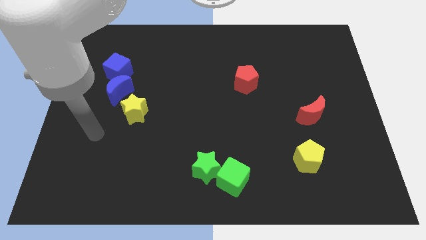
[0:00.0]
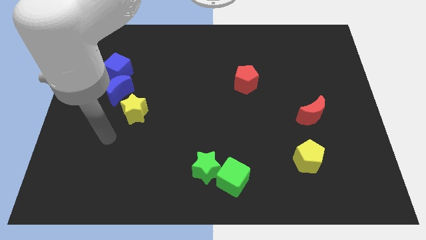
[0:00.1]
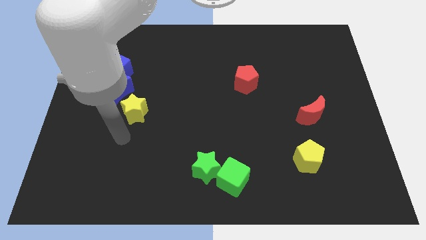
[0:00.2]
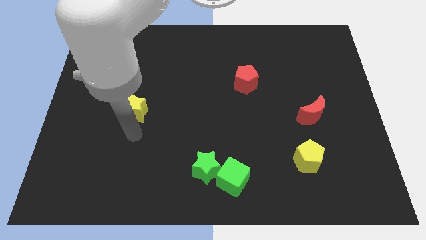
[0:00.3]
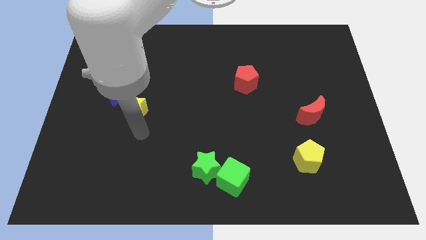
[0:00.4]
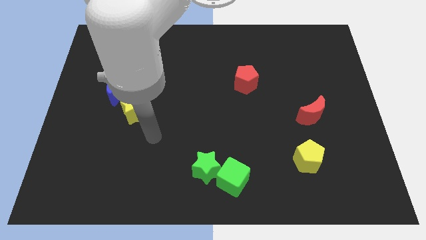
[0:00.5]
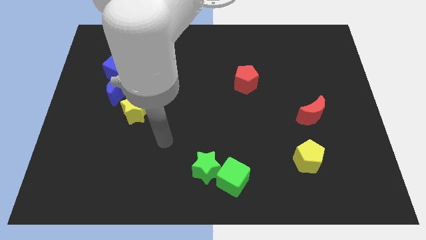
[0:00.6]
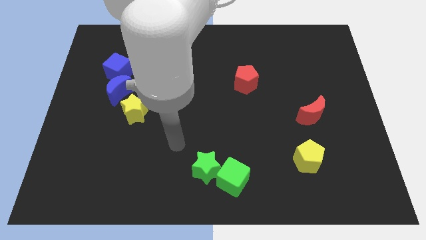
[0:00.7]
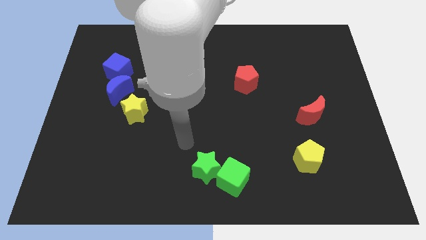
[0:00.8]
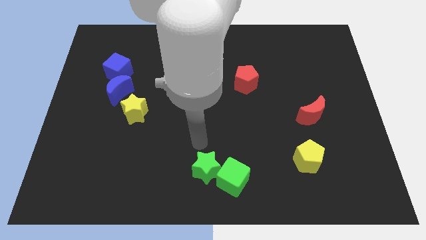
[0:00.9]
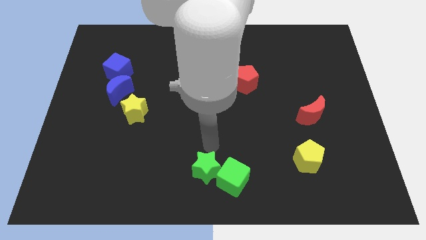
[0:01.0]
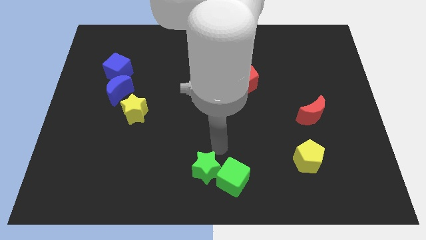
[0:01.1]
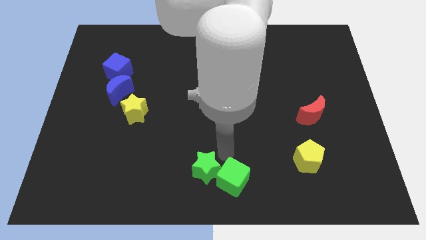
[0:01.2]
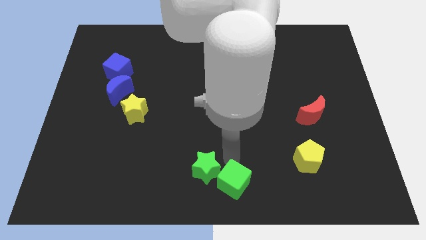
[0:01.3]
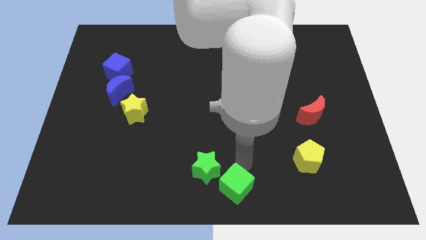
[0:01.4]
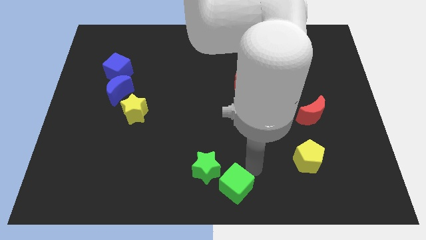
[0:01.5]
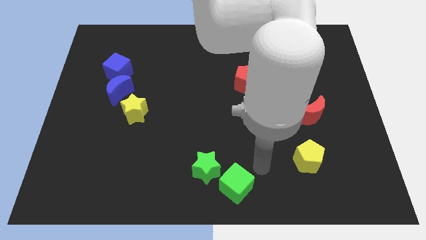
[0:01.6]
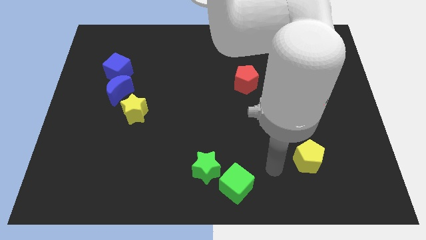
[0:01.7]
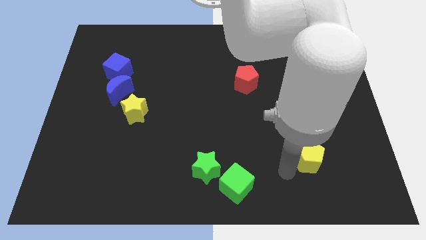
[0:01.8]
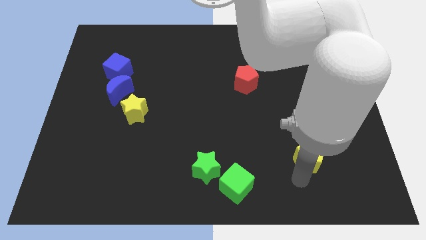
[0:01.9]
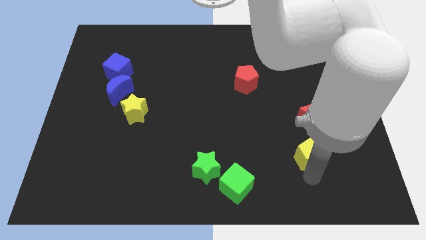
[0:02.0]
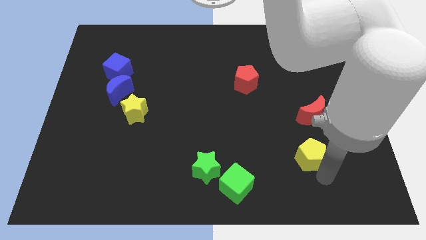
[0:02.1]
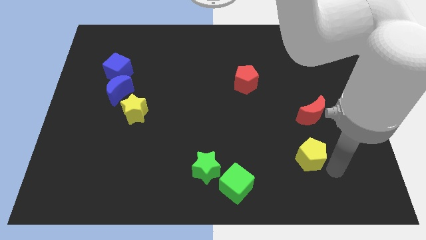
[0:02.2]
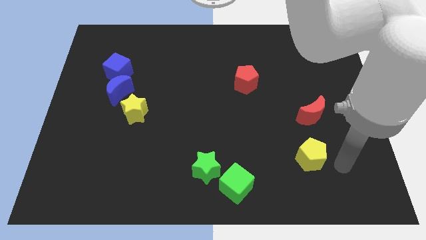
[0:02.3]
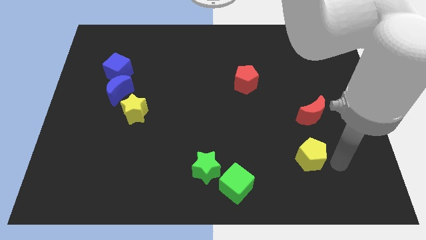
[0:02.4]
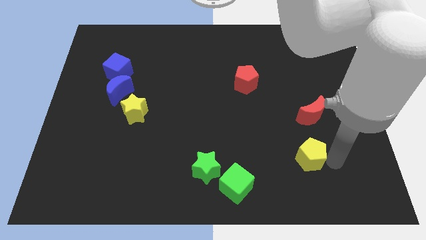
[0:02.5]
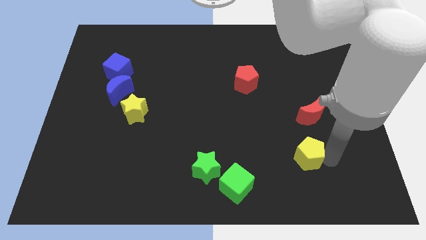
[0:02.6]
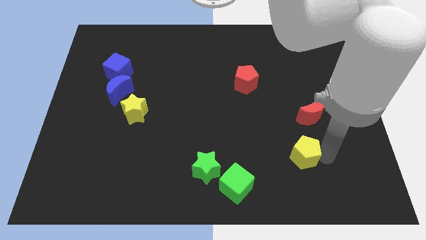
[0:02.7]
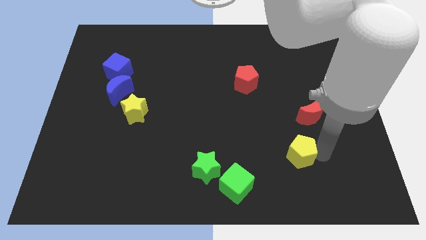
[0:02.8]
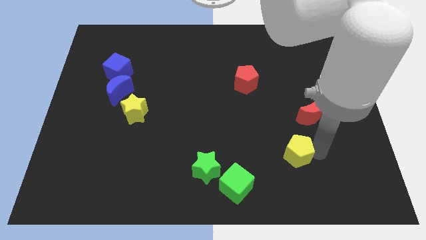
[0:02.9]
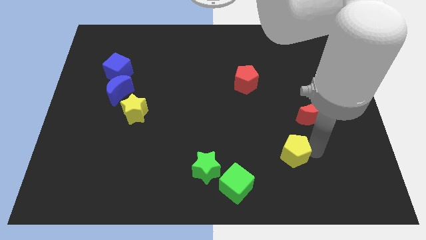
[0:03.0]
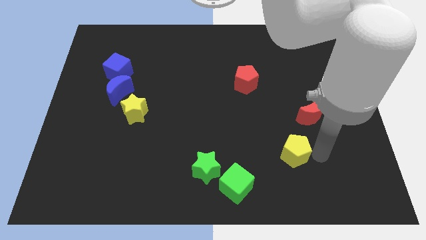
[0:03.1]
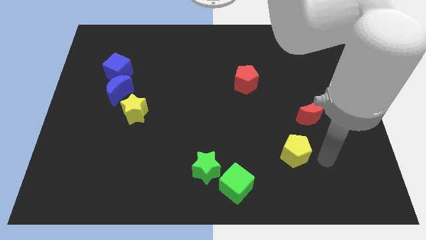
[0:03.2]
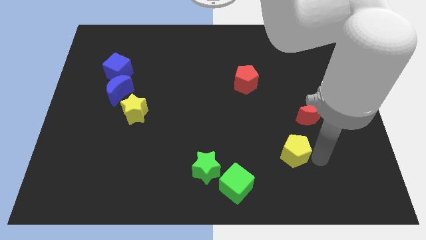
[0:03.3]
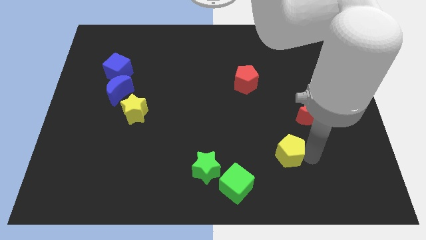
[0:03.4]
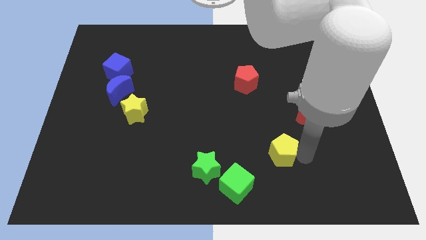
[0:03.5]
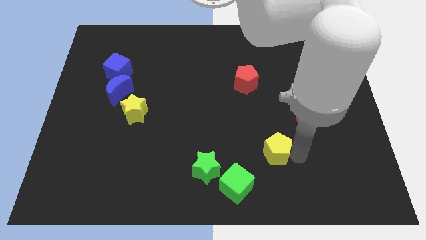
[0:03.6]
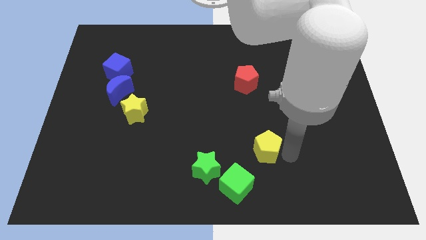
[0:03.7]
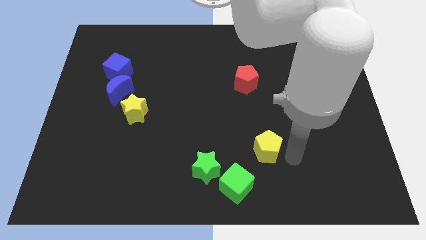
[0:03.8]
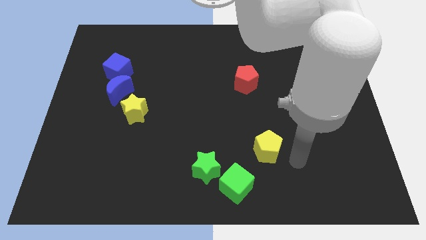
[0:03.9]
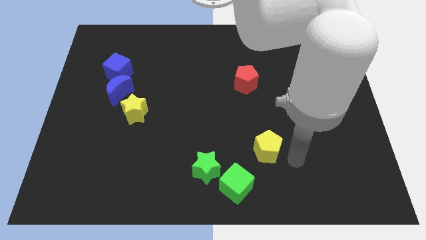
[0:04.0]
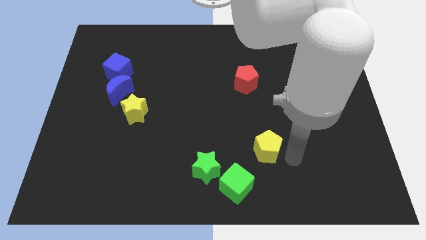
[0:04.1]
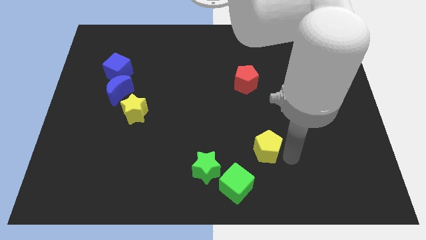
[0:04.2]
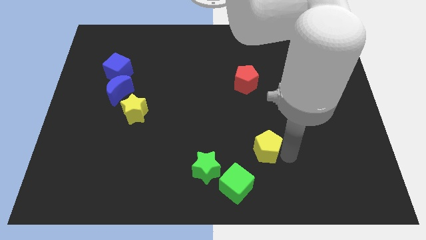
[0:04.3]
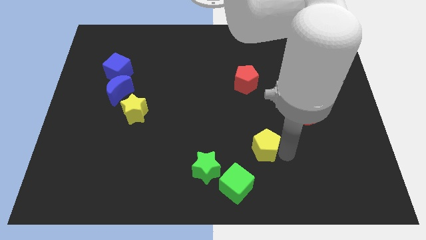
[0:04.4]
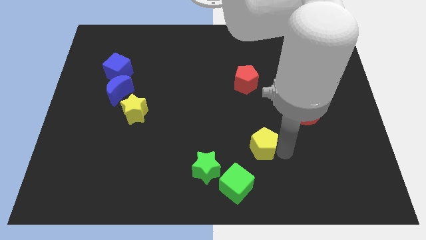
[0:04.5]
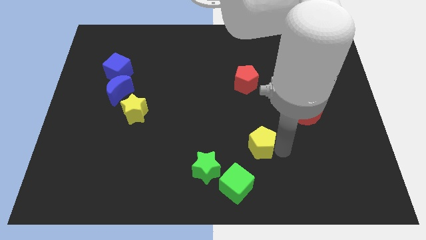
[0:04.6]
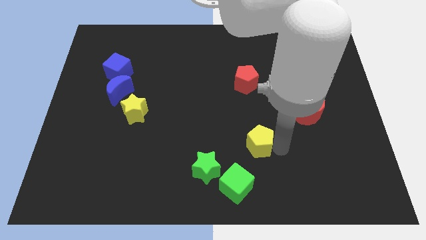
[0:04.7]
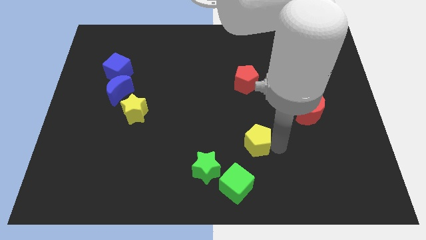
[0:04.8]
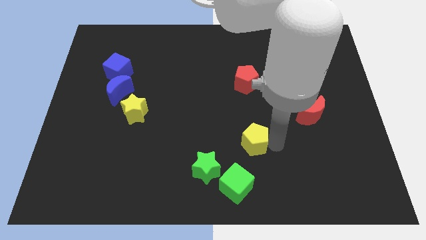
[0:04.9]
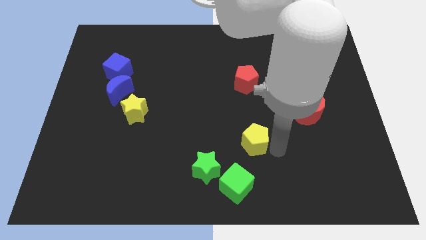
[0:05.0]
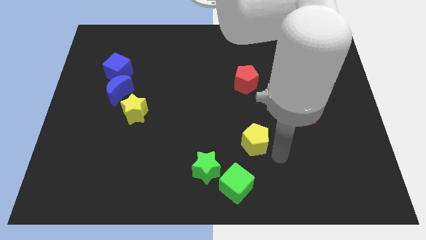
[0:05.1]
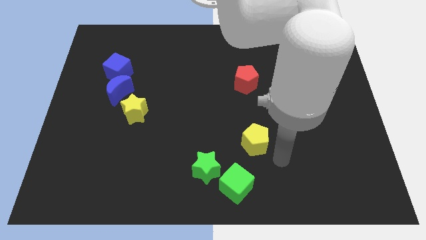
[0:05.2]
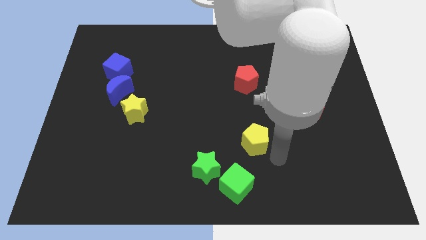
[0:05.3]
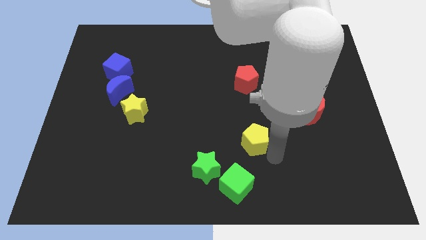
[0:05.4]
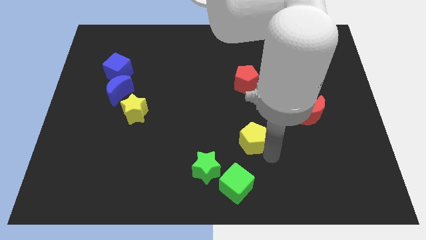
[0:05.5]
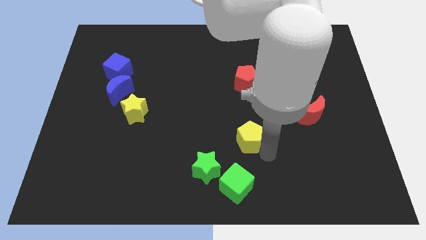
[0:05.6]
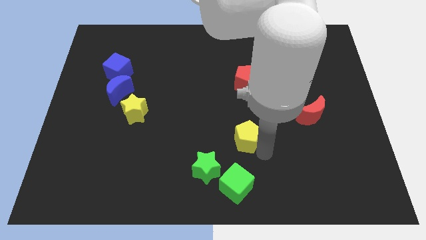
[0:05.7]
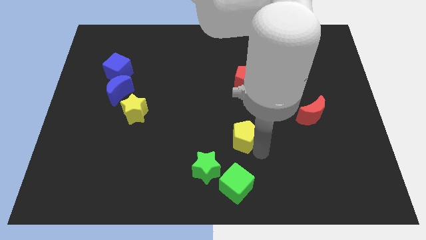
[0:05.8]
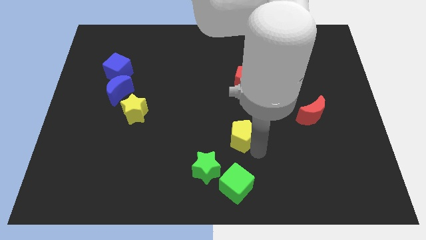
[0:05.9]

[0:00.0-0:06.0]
move the yellow pentagon to the center of the board

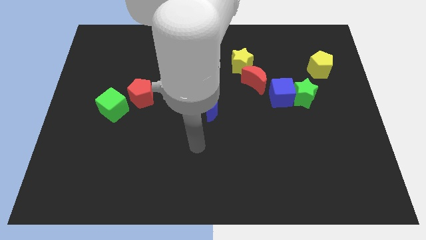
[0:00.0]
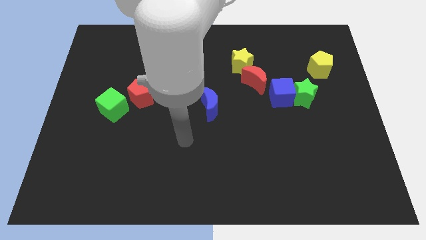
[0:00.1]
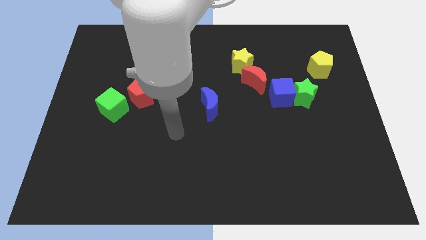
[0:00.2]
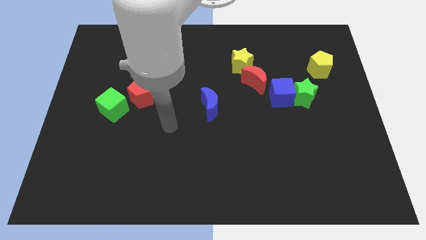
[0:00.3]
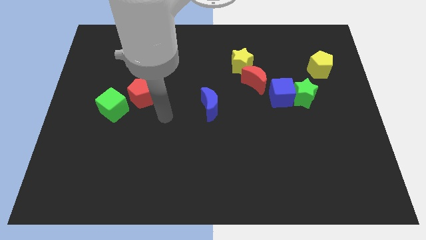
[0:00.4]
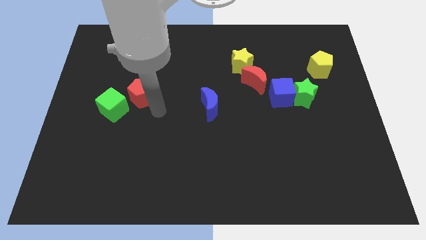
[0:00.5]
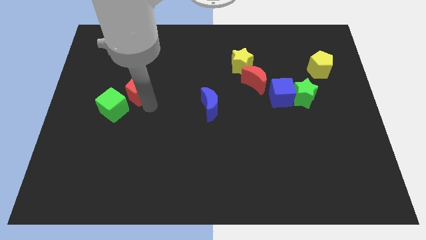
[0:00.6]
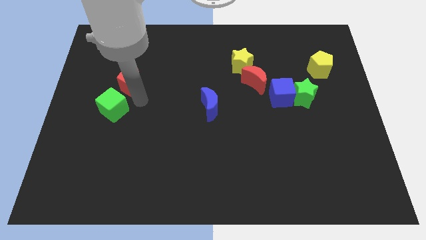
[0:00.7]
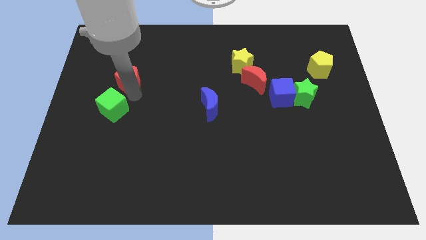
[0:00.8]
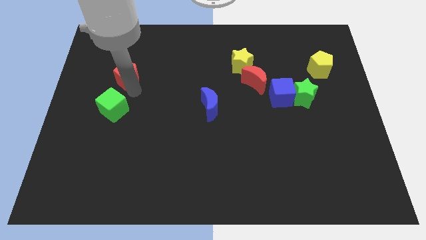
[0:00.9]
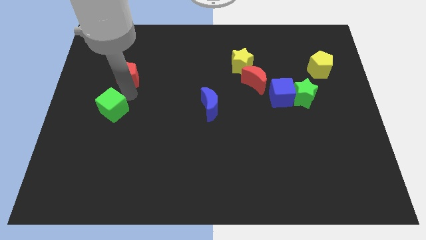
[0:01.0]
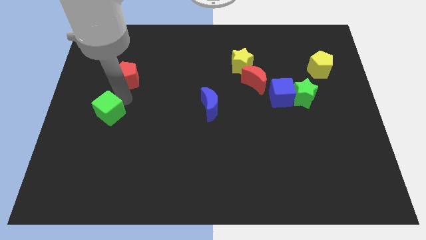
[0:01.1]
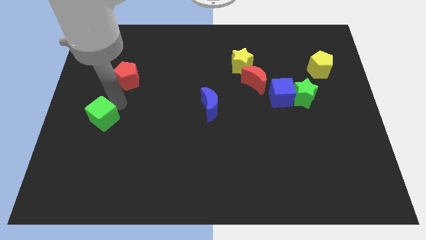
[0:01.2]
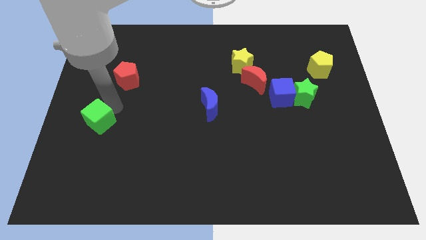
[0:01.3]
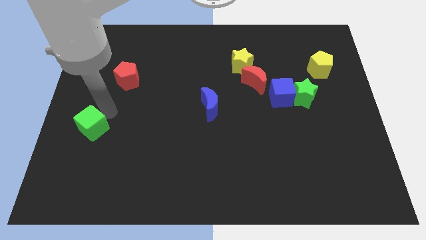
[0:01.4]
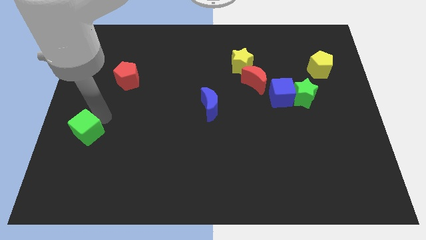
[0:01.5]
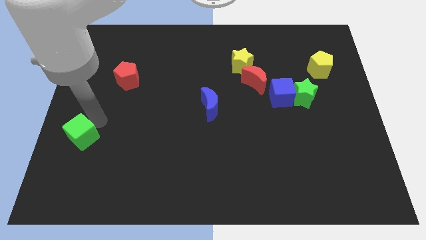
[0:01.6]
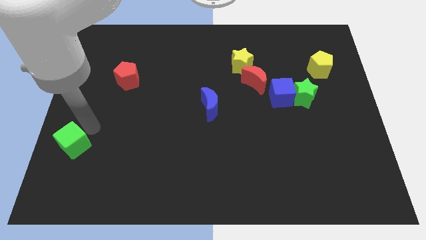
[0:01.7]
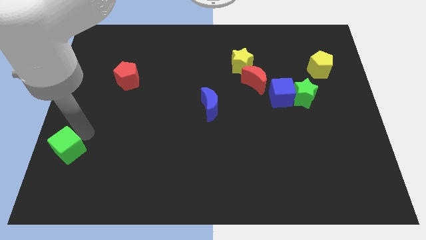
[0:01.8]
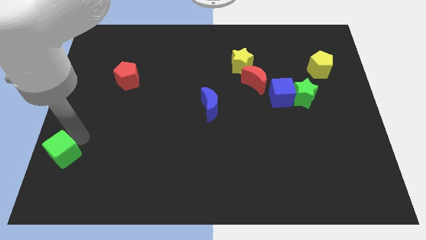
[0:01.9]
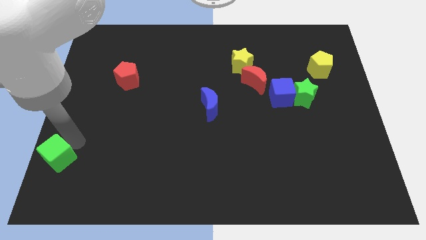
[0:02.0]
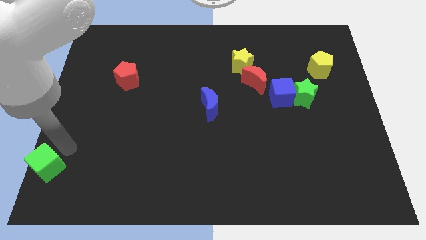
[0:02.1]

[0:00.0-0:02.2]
put the green cube to the bottom left of the board
